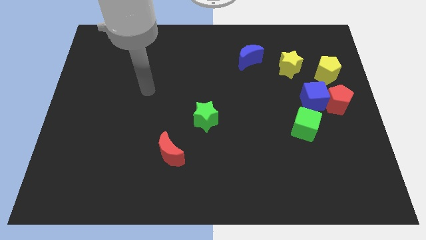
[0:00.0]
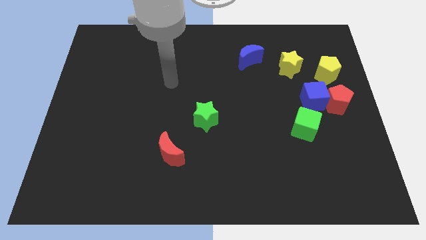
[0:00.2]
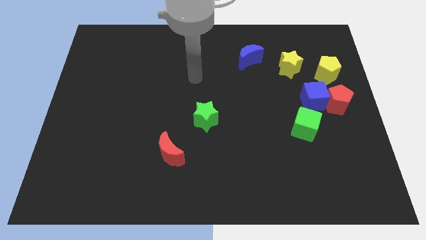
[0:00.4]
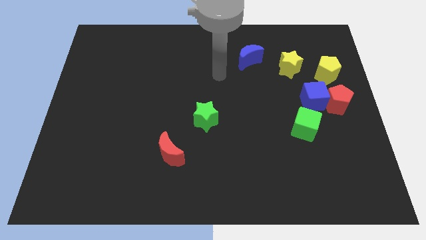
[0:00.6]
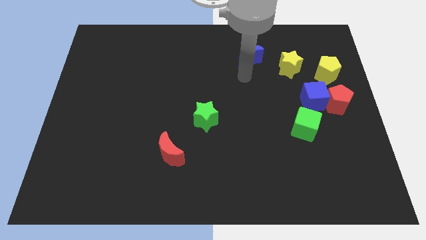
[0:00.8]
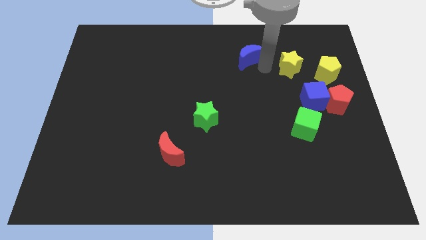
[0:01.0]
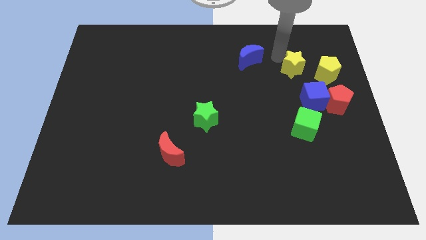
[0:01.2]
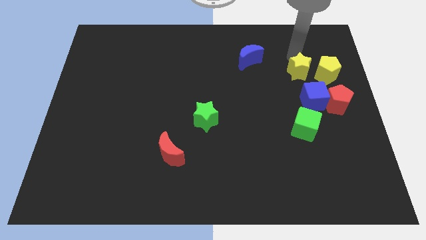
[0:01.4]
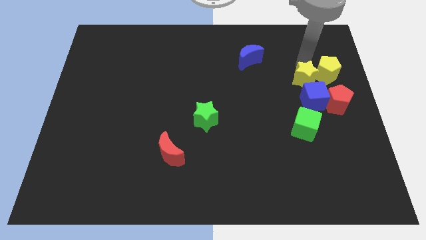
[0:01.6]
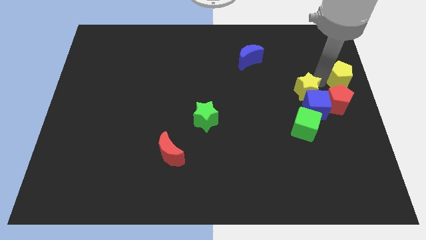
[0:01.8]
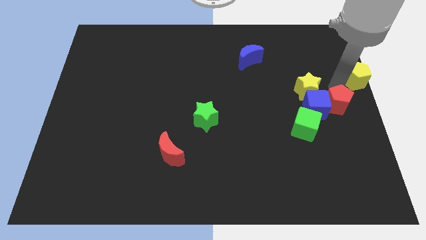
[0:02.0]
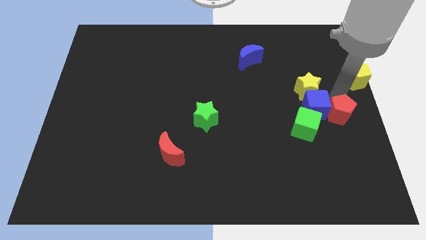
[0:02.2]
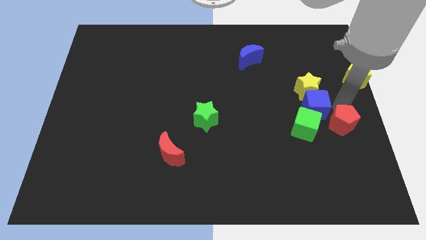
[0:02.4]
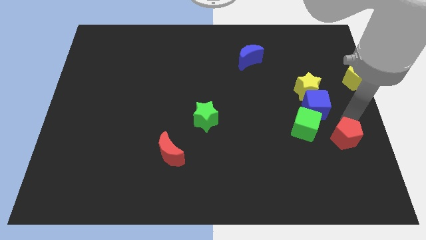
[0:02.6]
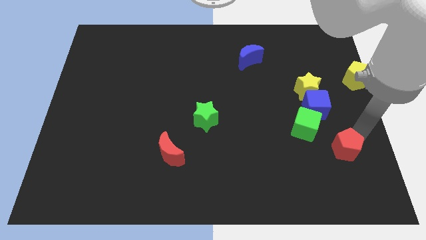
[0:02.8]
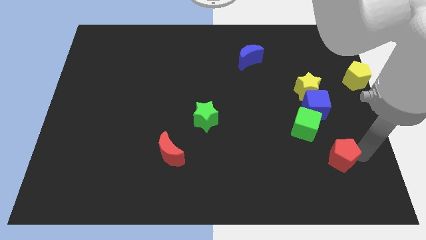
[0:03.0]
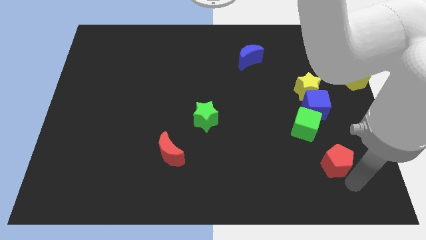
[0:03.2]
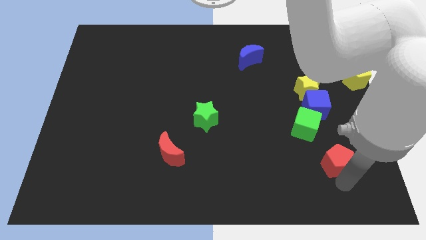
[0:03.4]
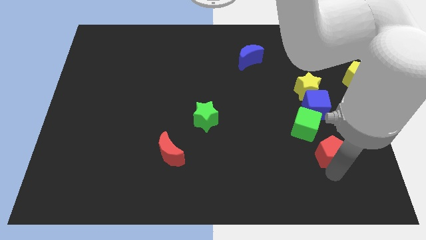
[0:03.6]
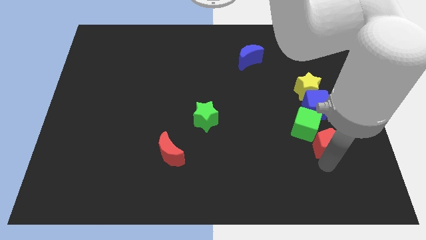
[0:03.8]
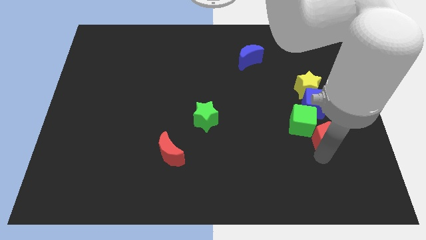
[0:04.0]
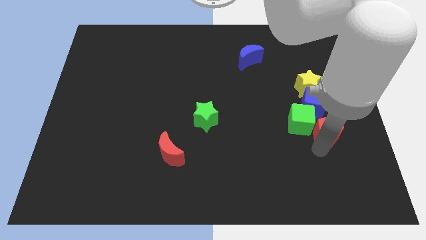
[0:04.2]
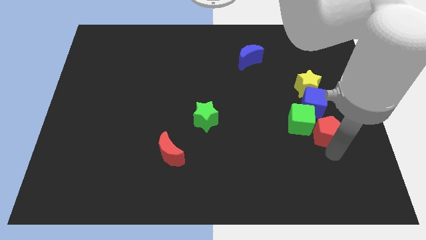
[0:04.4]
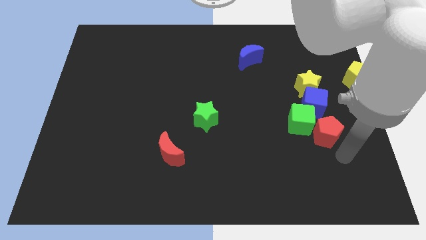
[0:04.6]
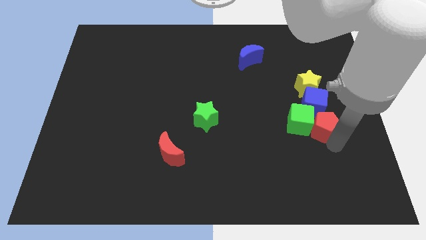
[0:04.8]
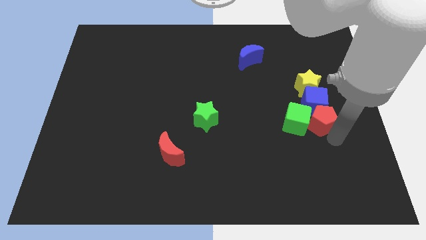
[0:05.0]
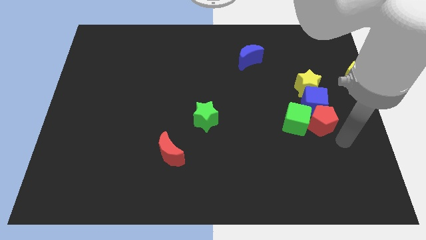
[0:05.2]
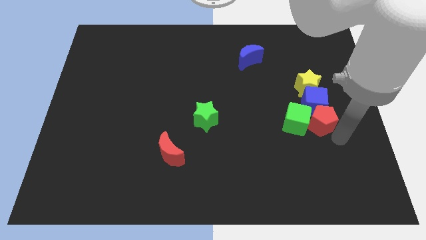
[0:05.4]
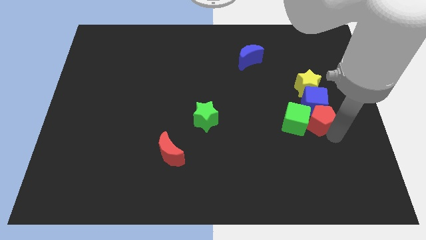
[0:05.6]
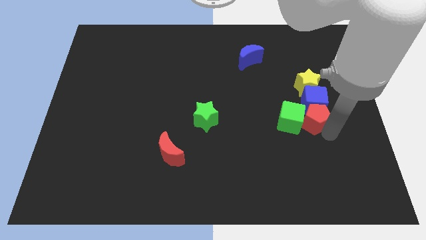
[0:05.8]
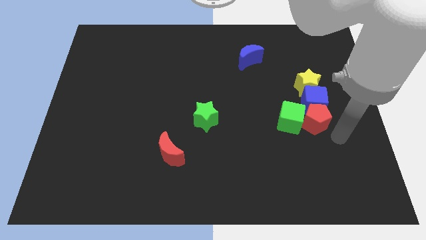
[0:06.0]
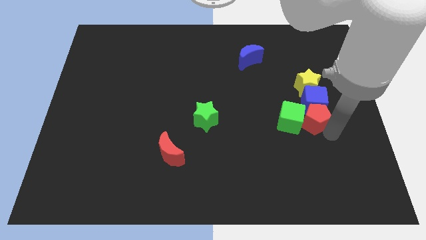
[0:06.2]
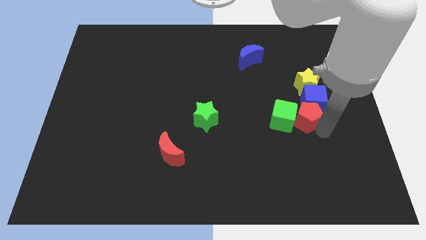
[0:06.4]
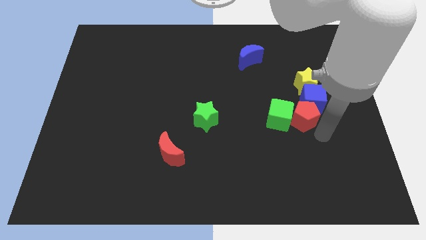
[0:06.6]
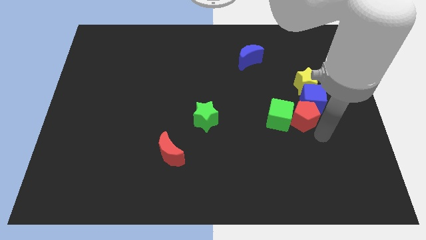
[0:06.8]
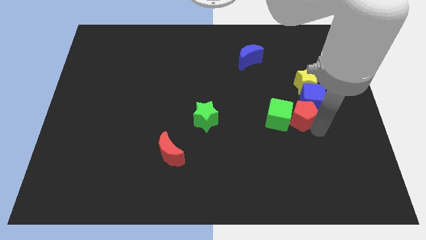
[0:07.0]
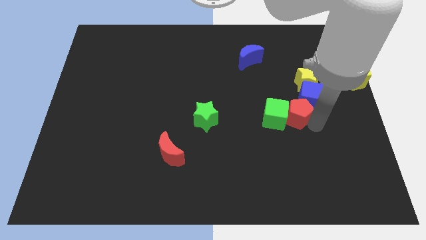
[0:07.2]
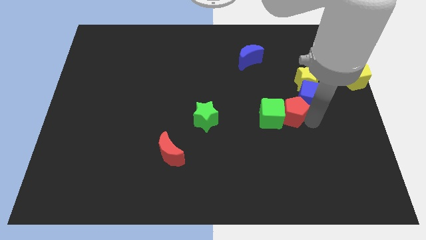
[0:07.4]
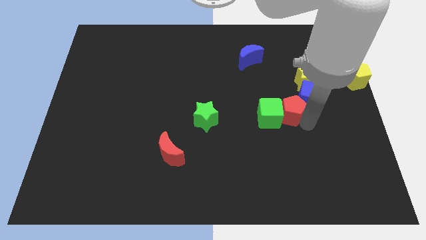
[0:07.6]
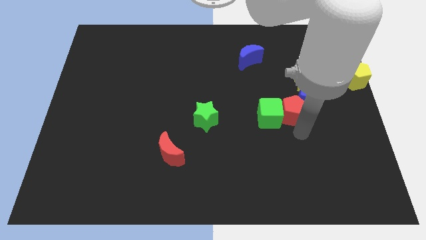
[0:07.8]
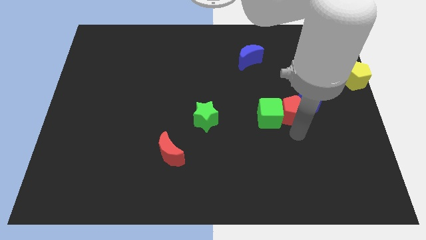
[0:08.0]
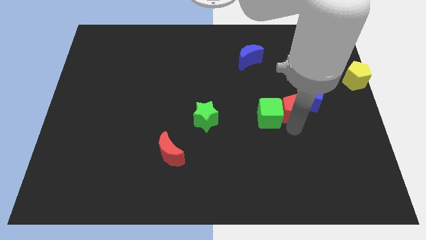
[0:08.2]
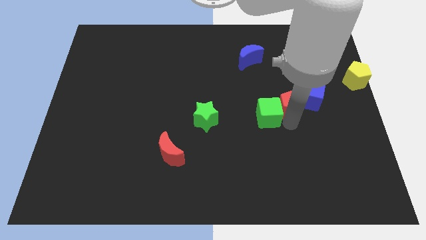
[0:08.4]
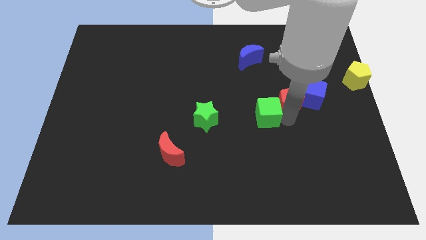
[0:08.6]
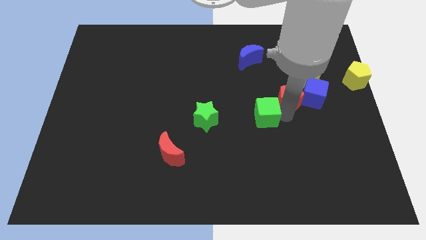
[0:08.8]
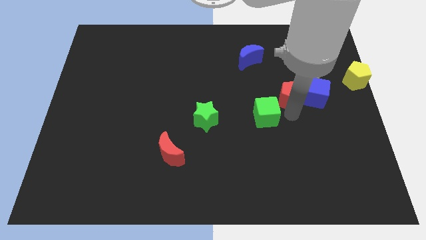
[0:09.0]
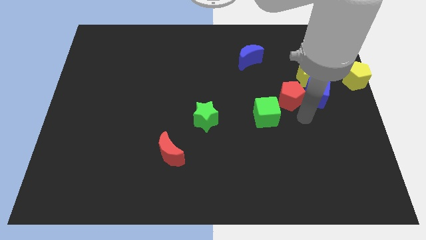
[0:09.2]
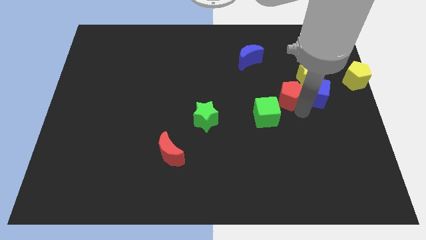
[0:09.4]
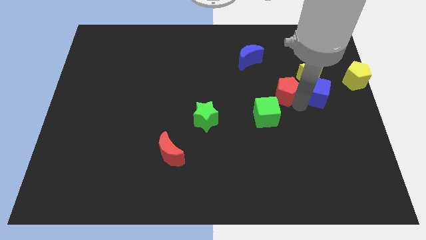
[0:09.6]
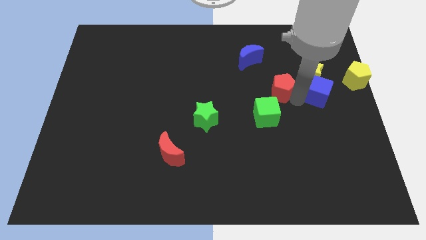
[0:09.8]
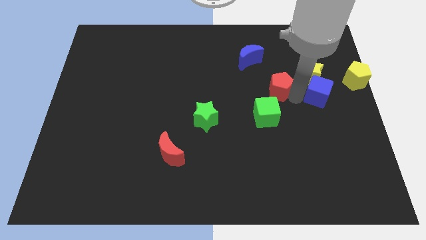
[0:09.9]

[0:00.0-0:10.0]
push the red pentagon to the bottom right of the blue moon

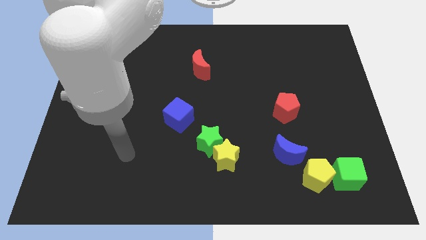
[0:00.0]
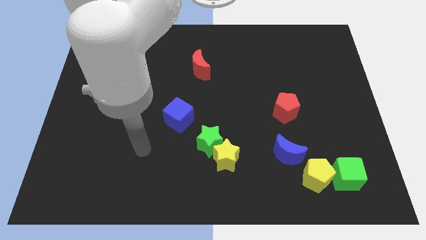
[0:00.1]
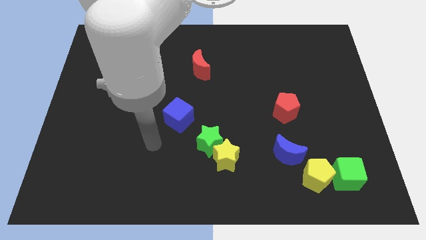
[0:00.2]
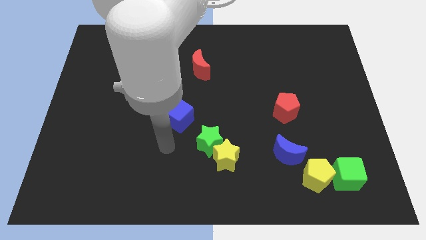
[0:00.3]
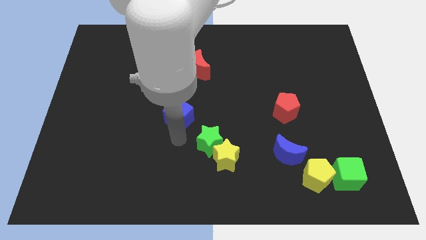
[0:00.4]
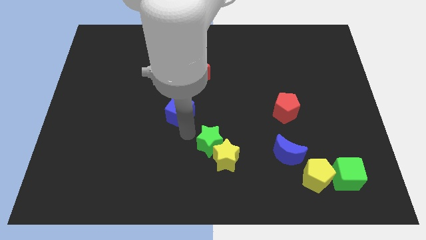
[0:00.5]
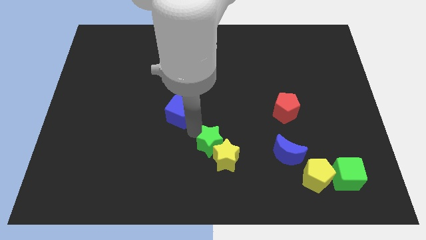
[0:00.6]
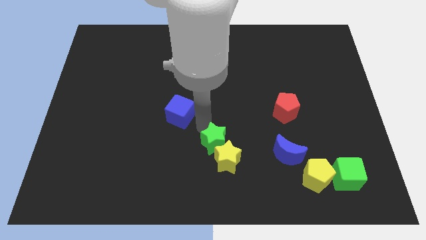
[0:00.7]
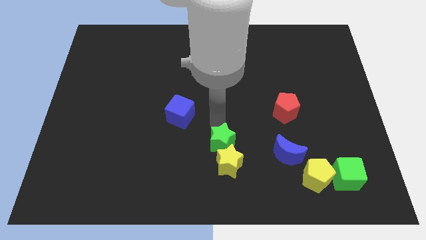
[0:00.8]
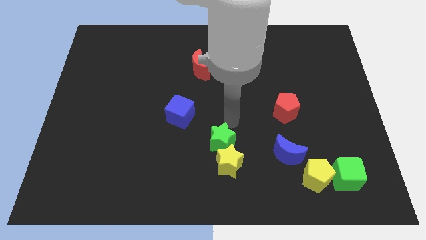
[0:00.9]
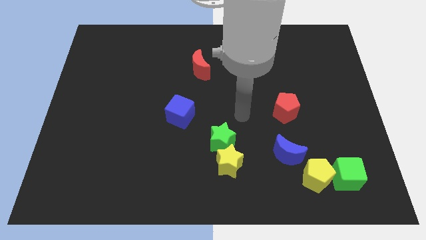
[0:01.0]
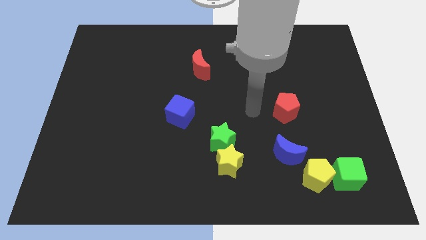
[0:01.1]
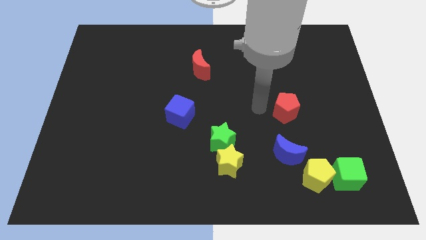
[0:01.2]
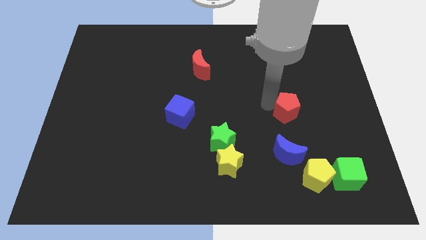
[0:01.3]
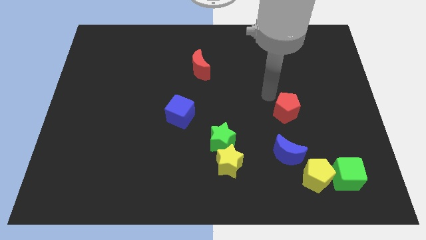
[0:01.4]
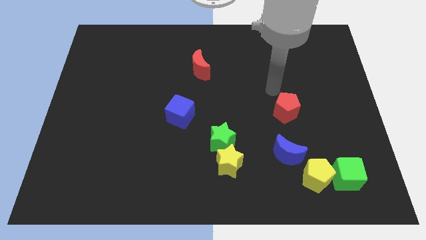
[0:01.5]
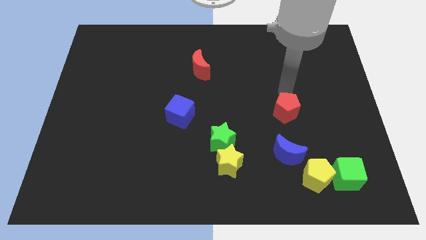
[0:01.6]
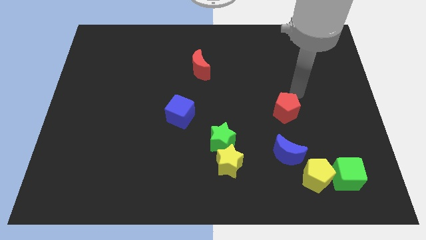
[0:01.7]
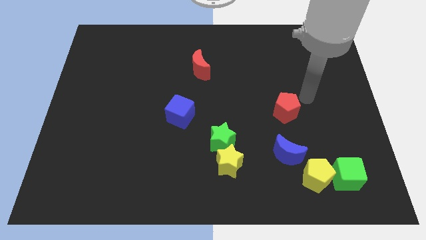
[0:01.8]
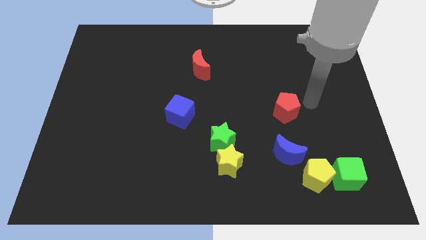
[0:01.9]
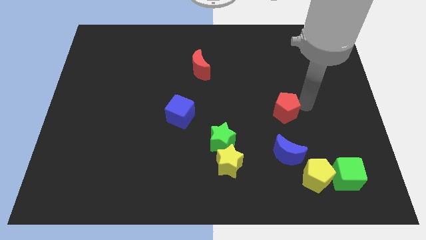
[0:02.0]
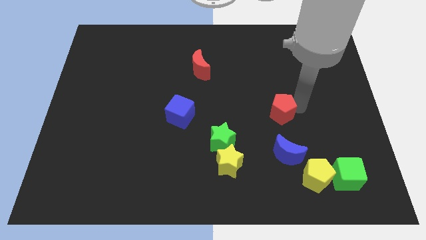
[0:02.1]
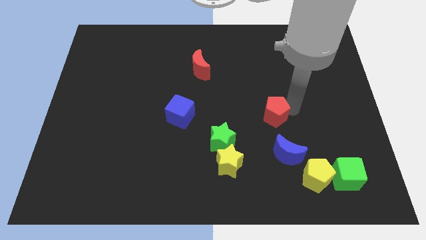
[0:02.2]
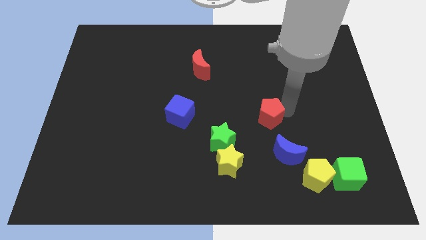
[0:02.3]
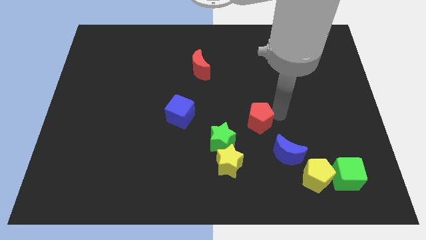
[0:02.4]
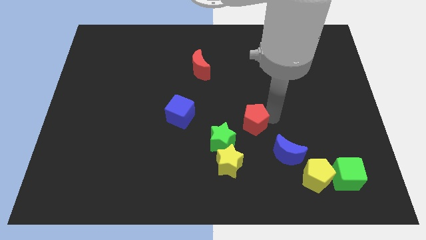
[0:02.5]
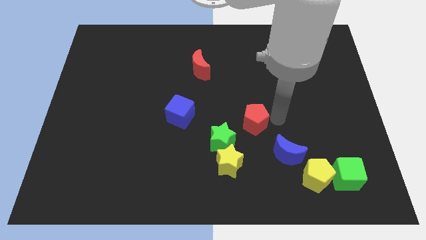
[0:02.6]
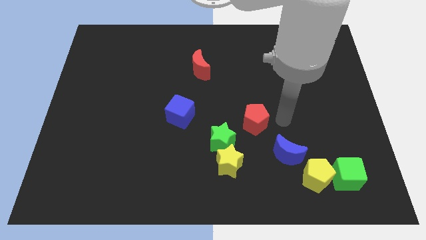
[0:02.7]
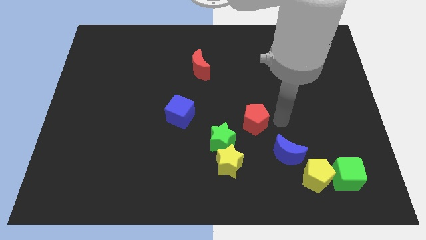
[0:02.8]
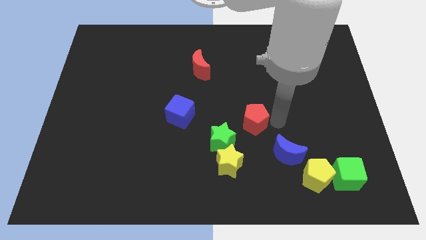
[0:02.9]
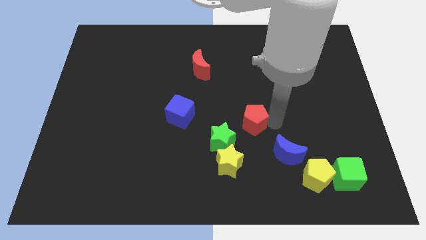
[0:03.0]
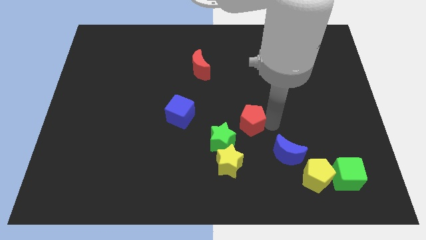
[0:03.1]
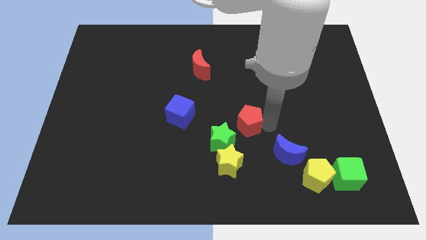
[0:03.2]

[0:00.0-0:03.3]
push the red pentagon to the top side of the yellow star
